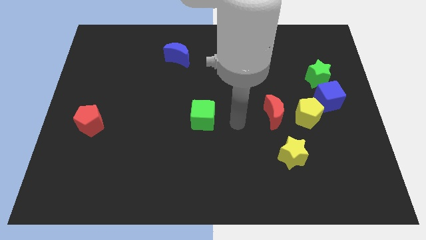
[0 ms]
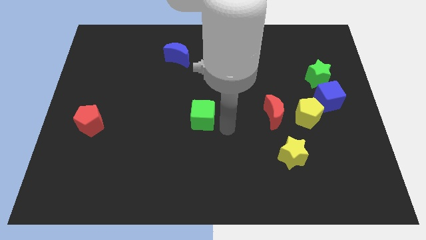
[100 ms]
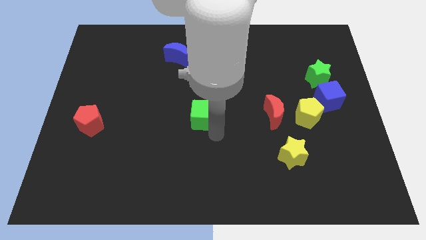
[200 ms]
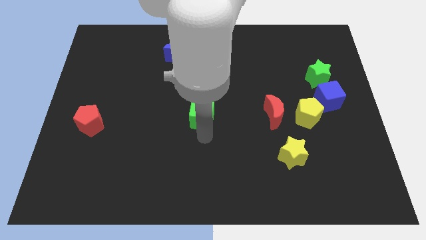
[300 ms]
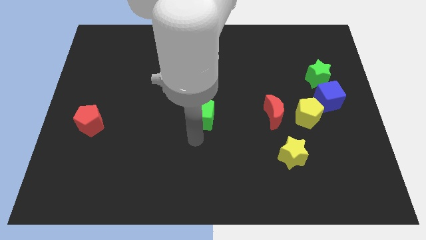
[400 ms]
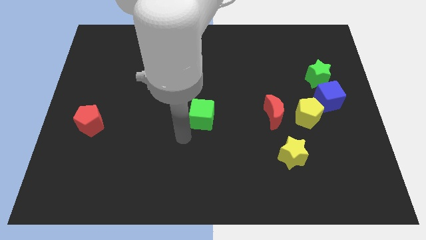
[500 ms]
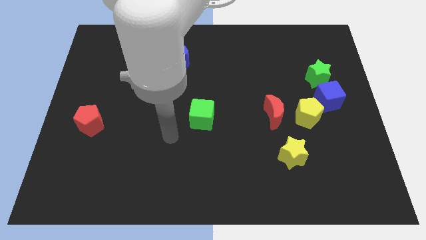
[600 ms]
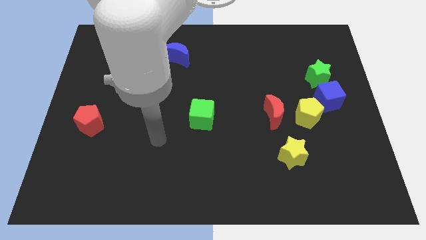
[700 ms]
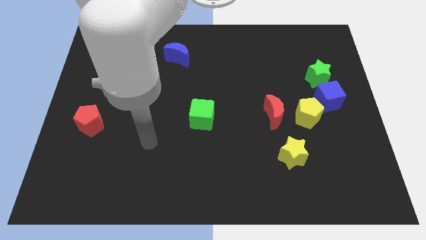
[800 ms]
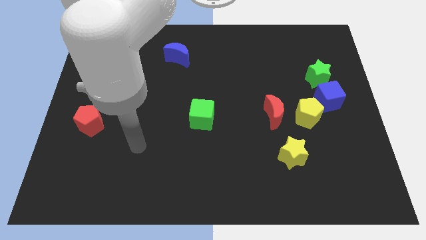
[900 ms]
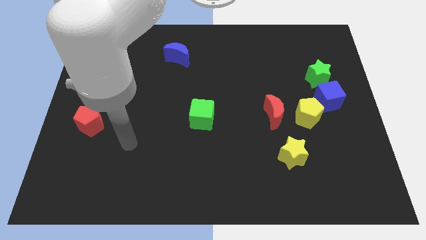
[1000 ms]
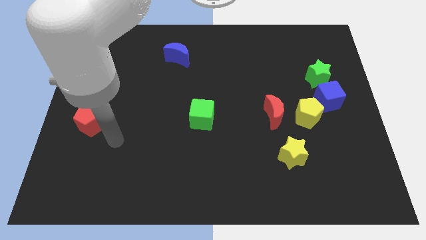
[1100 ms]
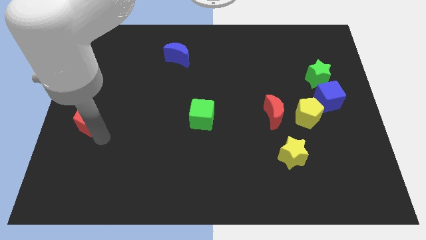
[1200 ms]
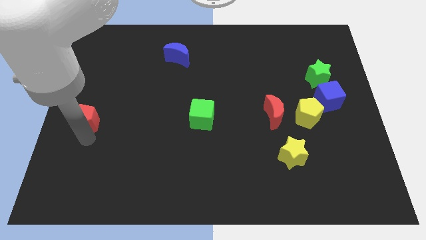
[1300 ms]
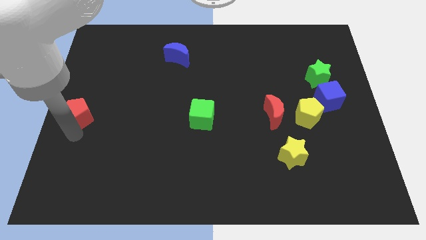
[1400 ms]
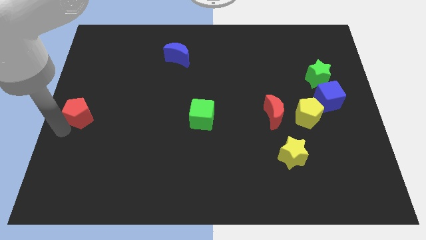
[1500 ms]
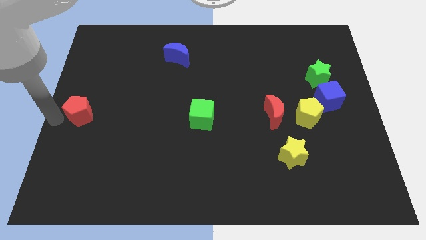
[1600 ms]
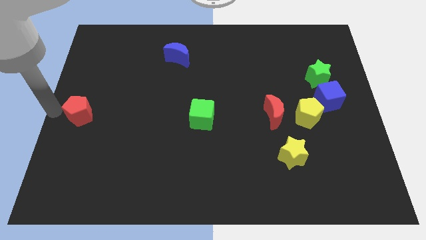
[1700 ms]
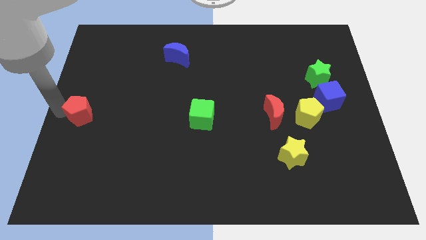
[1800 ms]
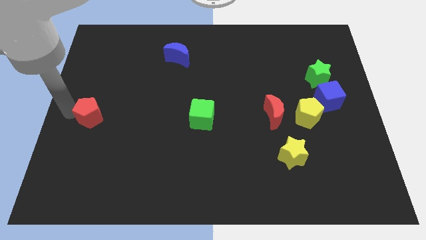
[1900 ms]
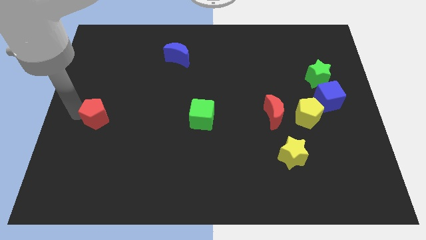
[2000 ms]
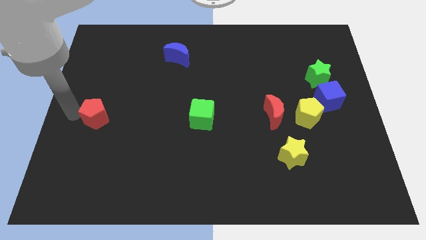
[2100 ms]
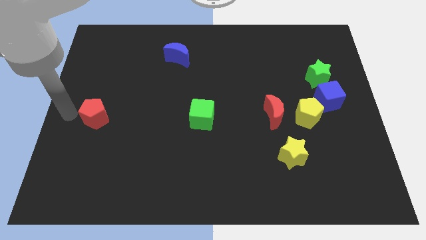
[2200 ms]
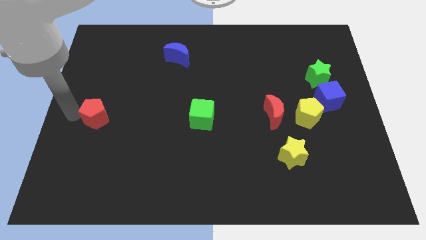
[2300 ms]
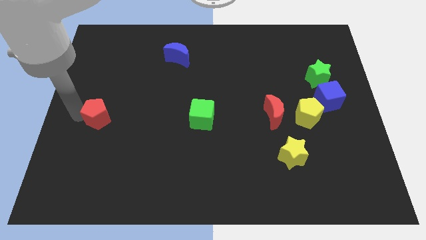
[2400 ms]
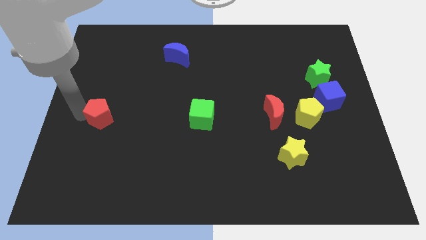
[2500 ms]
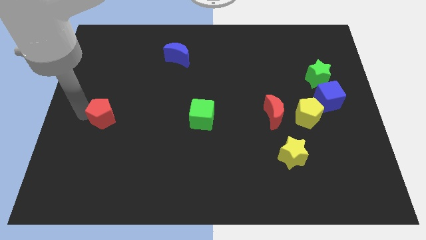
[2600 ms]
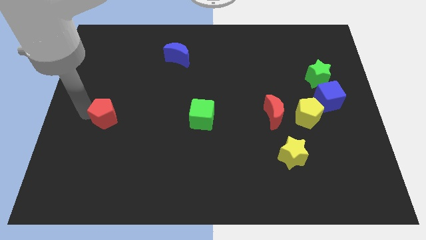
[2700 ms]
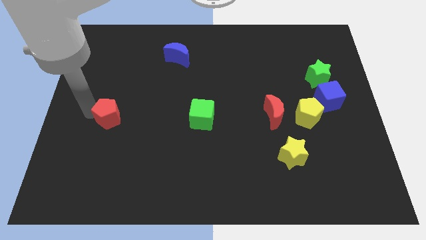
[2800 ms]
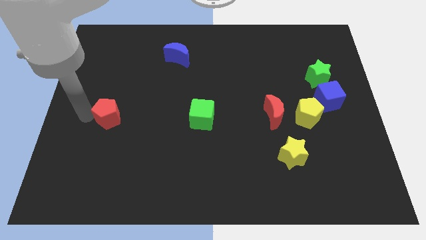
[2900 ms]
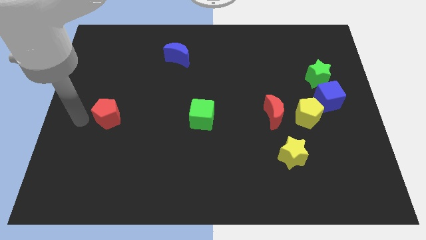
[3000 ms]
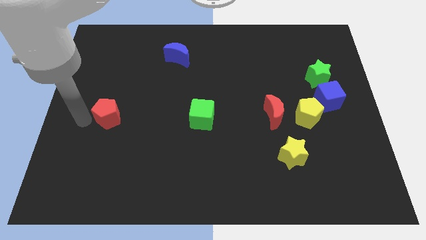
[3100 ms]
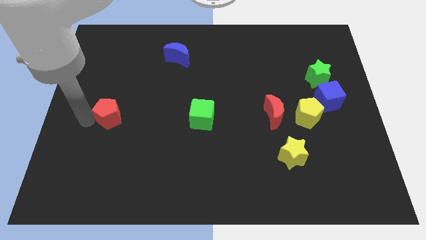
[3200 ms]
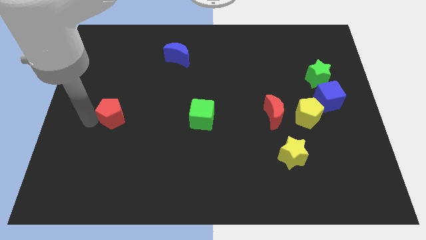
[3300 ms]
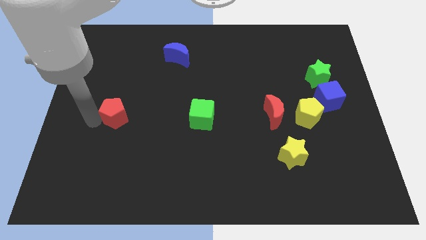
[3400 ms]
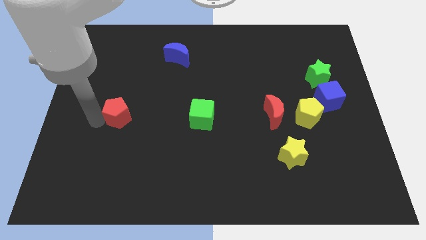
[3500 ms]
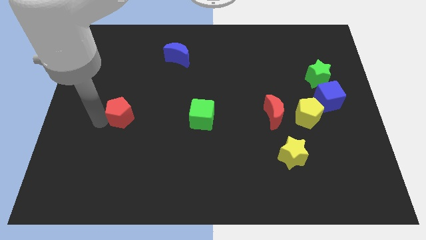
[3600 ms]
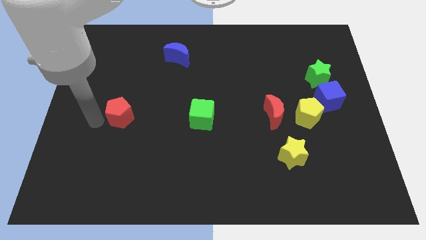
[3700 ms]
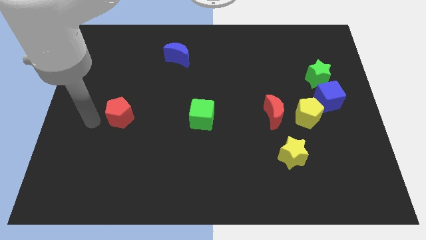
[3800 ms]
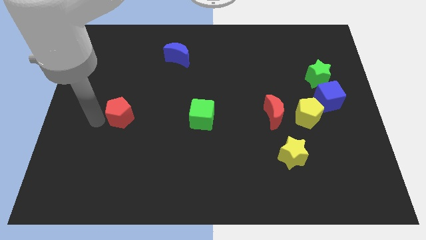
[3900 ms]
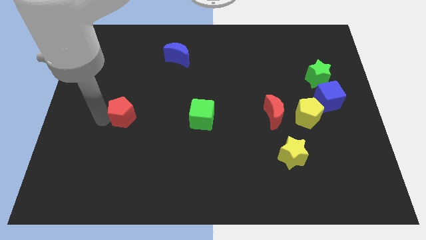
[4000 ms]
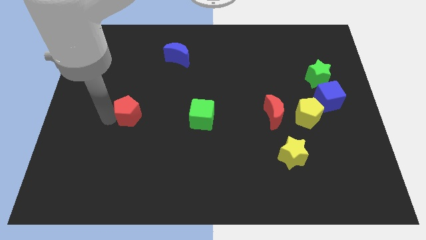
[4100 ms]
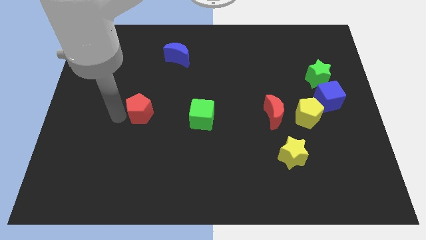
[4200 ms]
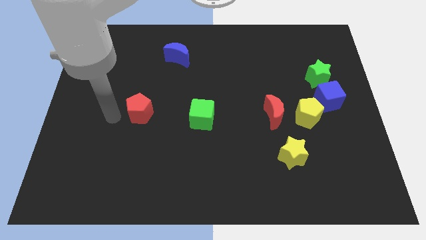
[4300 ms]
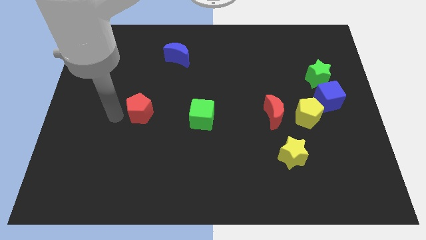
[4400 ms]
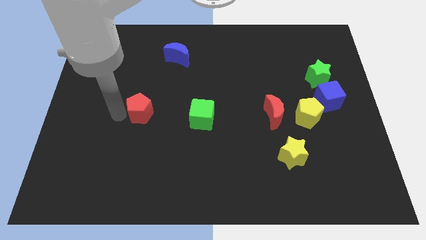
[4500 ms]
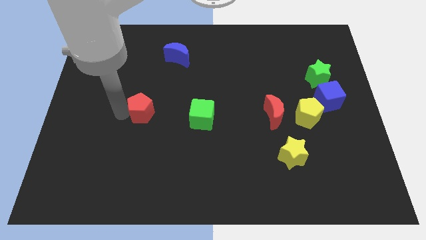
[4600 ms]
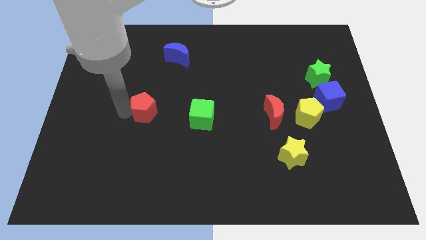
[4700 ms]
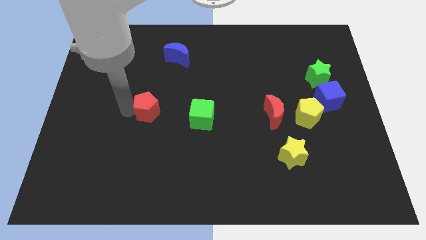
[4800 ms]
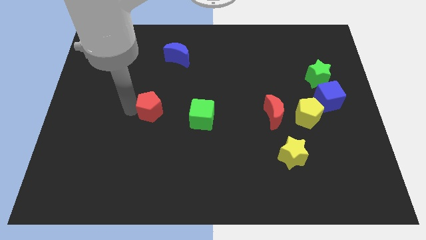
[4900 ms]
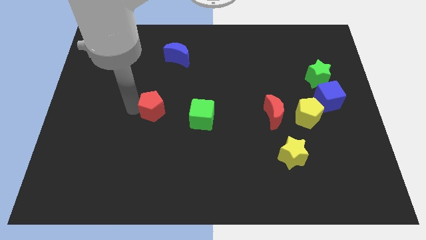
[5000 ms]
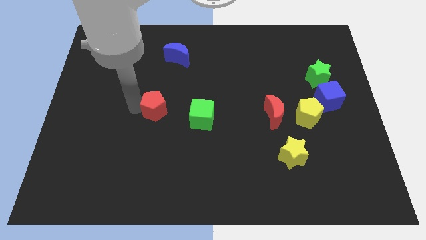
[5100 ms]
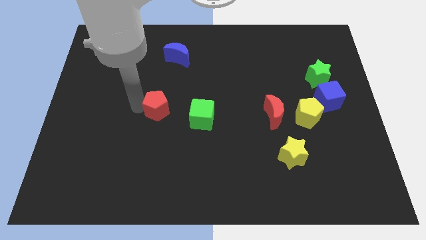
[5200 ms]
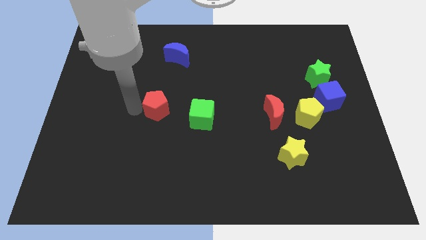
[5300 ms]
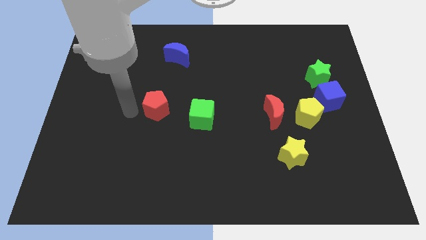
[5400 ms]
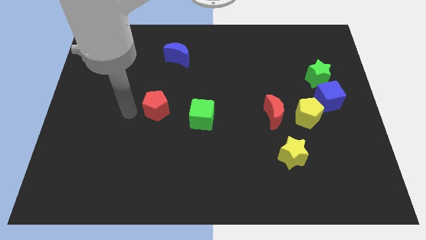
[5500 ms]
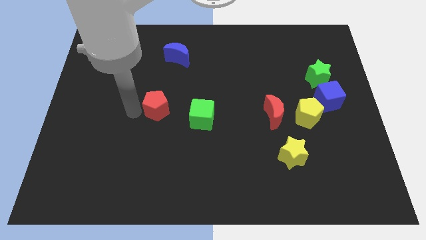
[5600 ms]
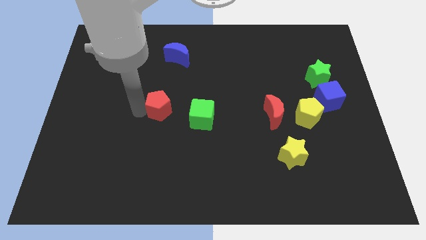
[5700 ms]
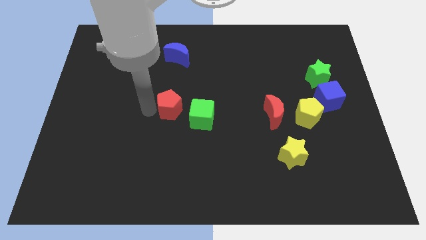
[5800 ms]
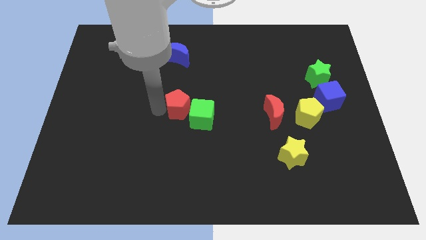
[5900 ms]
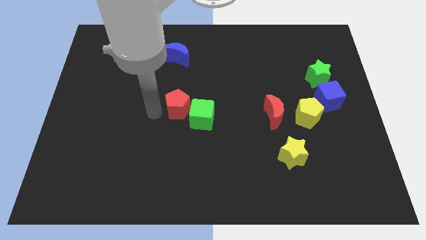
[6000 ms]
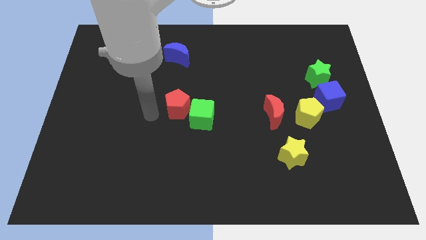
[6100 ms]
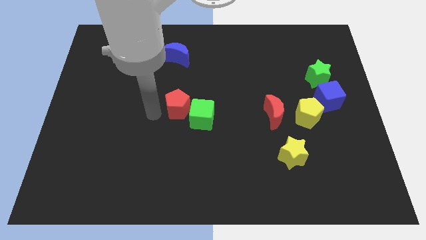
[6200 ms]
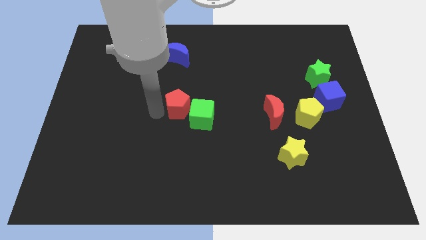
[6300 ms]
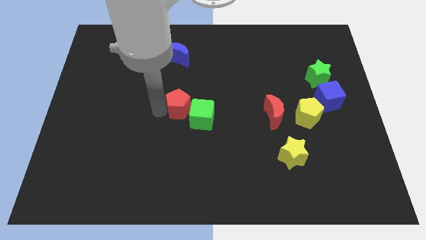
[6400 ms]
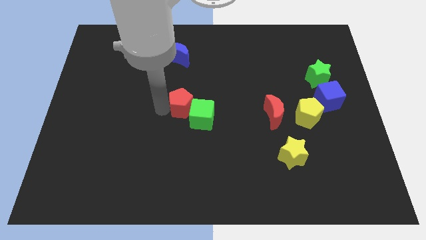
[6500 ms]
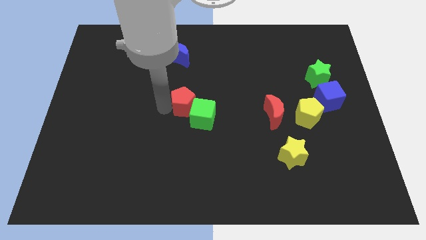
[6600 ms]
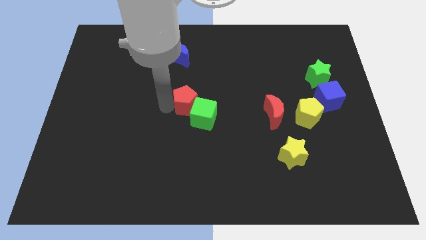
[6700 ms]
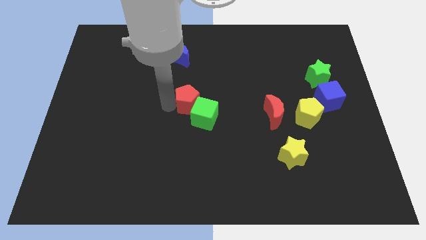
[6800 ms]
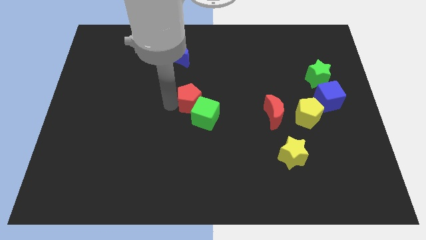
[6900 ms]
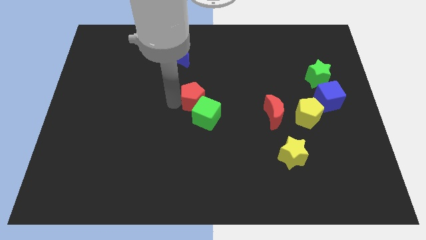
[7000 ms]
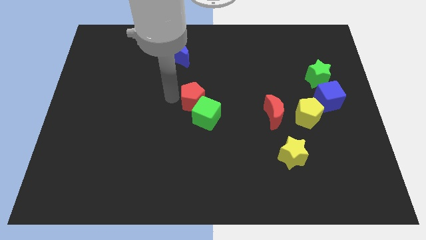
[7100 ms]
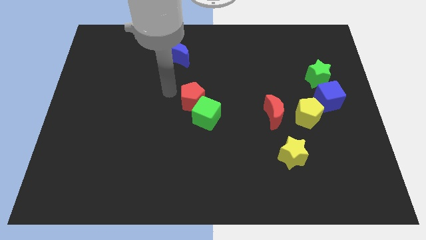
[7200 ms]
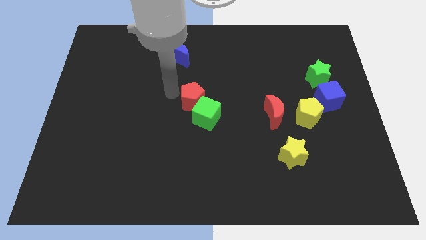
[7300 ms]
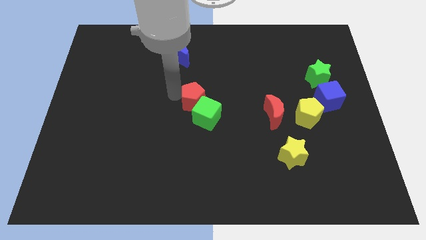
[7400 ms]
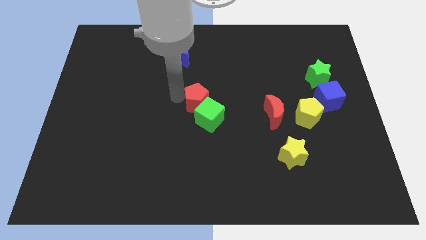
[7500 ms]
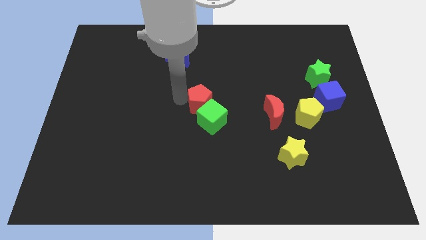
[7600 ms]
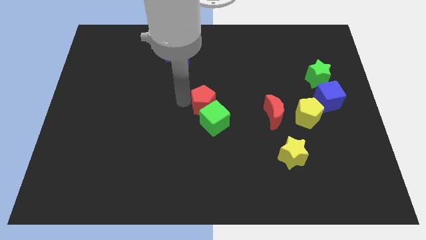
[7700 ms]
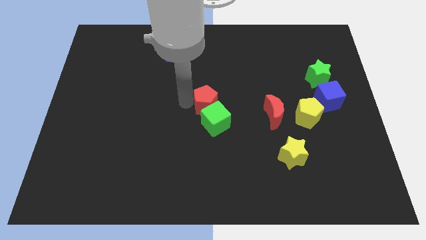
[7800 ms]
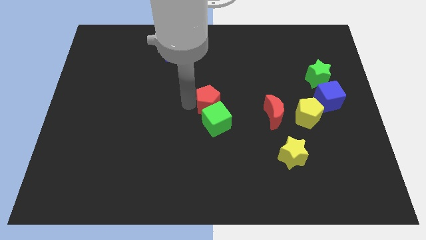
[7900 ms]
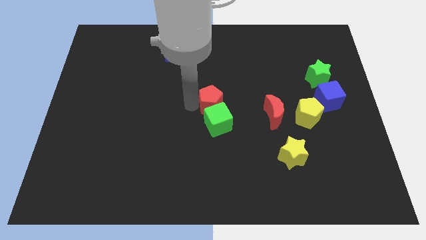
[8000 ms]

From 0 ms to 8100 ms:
put the red pentagon to the left of the red moon

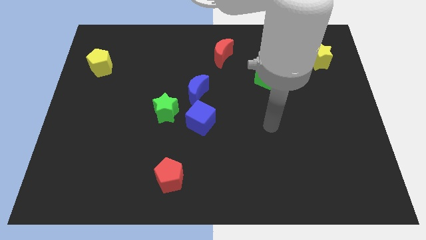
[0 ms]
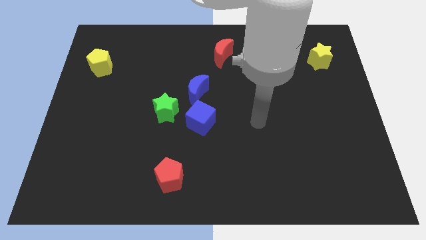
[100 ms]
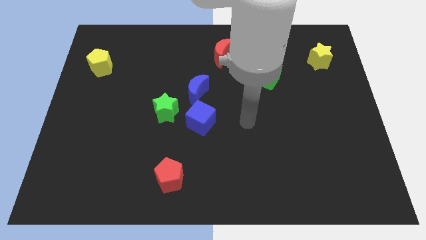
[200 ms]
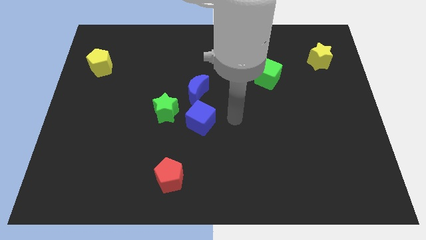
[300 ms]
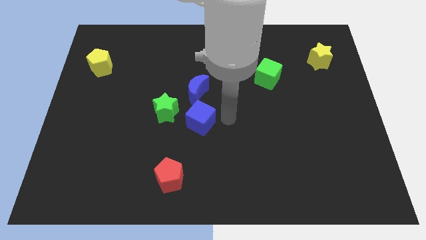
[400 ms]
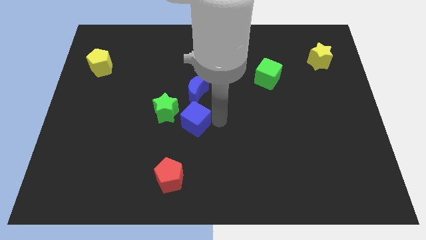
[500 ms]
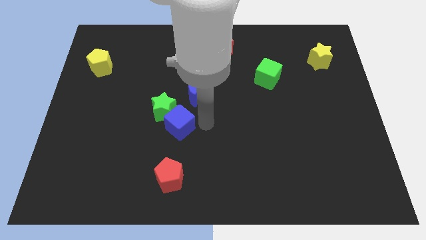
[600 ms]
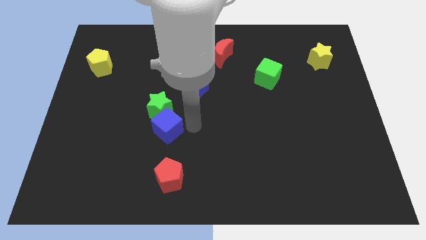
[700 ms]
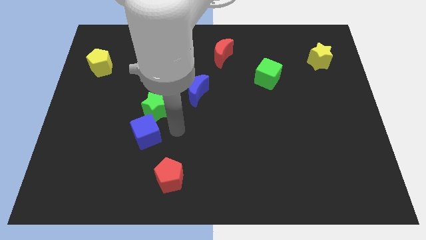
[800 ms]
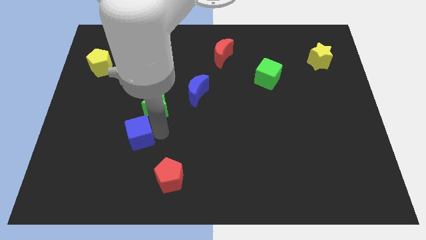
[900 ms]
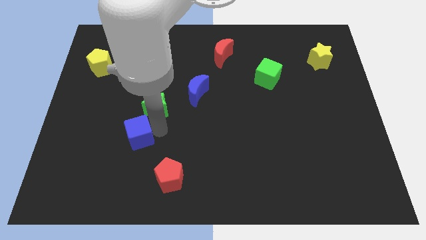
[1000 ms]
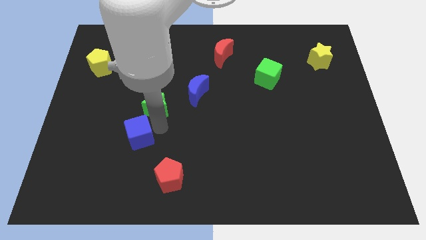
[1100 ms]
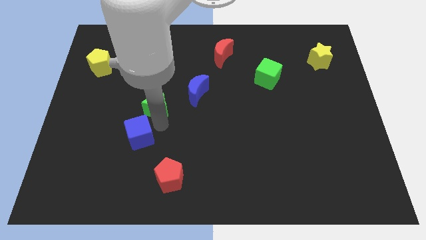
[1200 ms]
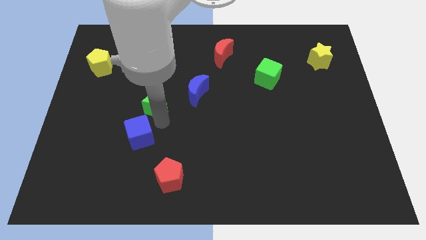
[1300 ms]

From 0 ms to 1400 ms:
slide the green star to the left side of the blue moon
